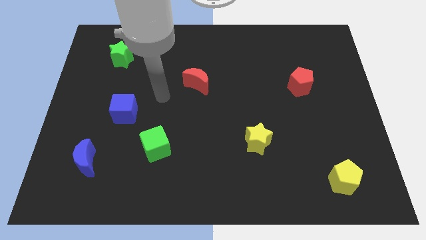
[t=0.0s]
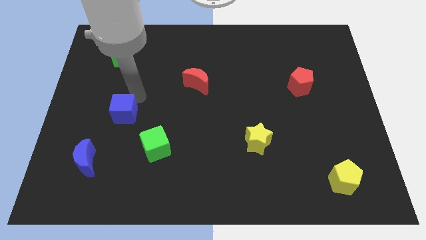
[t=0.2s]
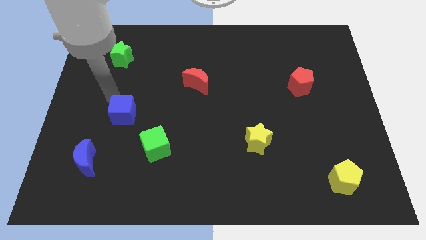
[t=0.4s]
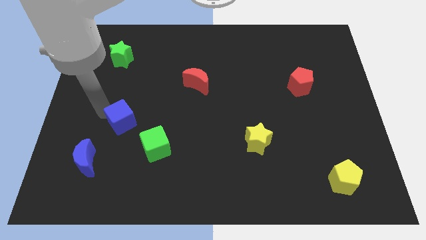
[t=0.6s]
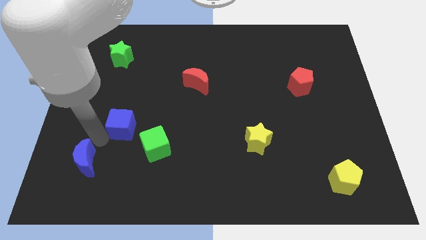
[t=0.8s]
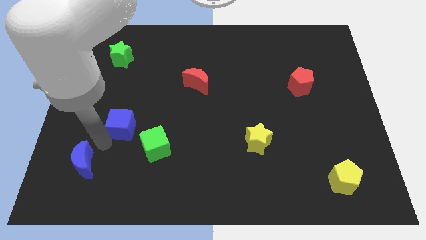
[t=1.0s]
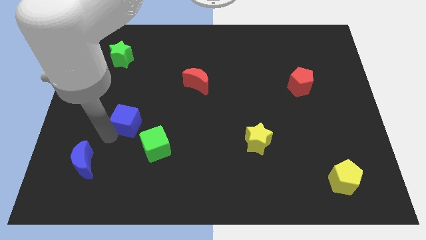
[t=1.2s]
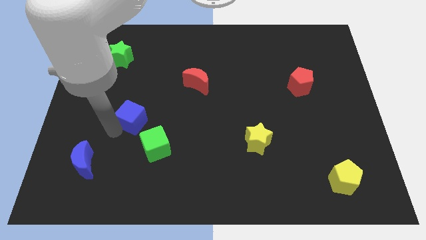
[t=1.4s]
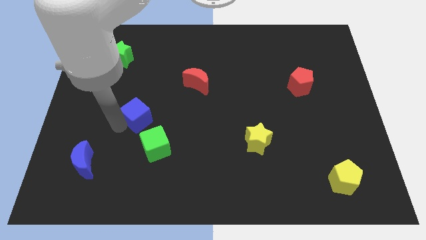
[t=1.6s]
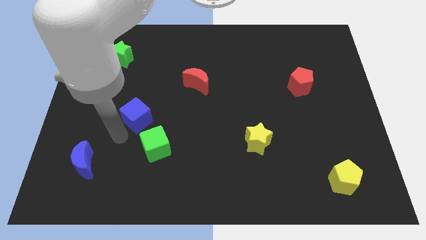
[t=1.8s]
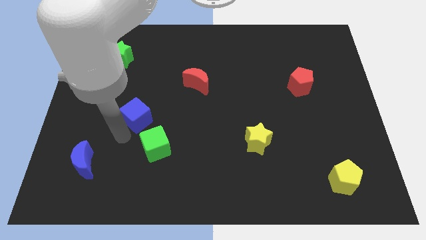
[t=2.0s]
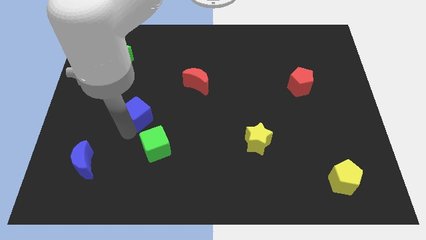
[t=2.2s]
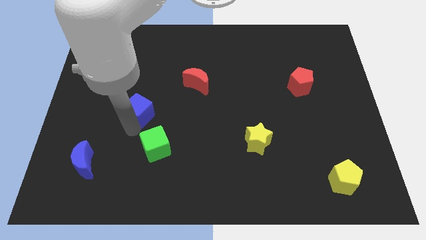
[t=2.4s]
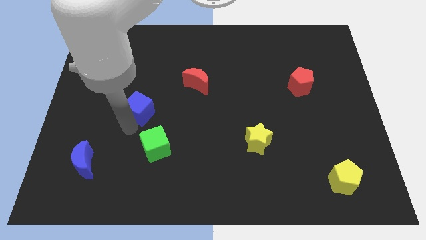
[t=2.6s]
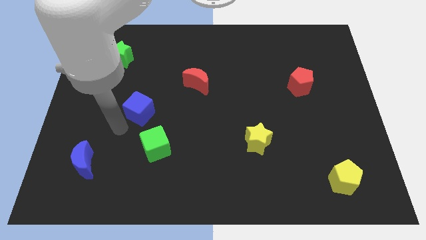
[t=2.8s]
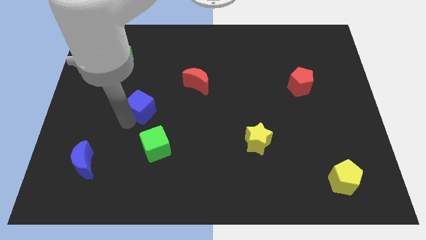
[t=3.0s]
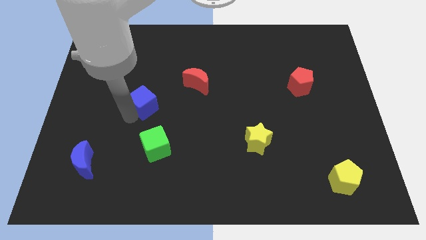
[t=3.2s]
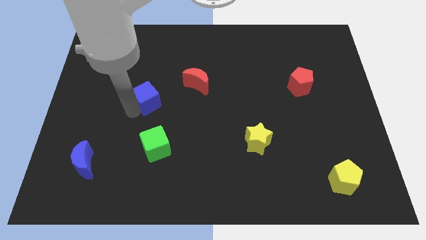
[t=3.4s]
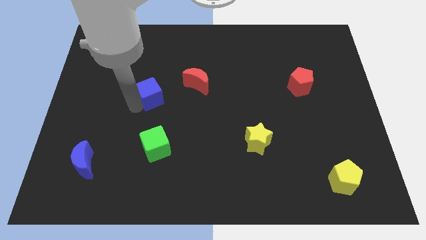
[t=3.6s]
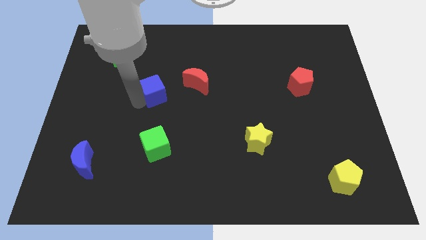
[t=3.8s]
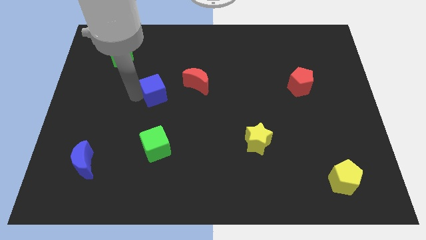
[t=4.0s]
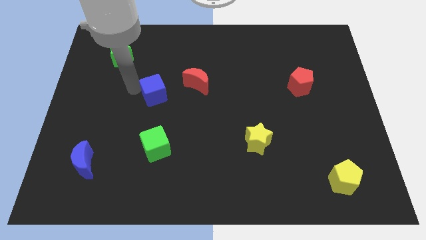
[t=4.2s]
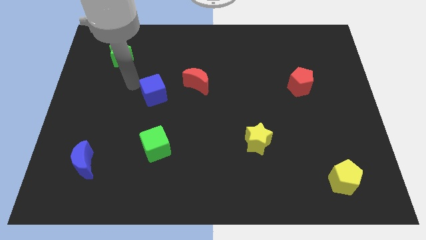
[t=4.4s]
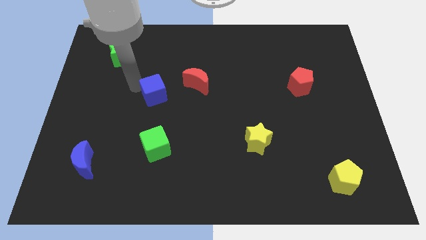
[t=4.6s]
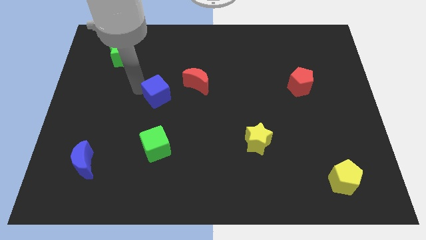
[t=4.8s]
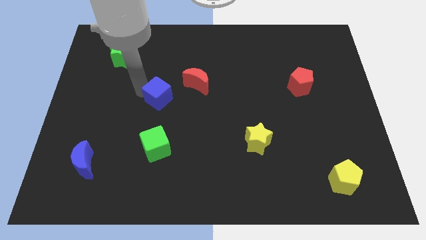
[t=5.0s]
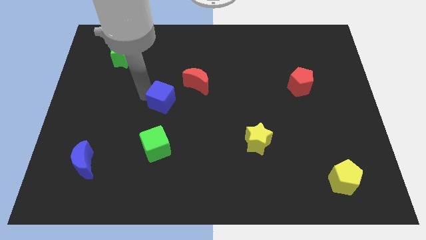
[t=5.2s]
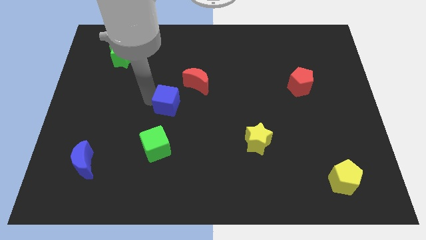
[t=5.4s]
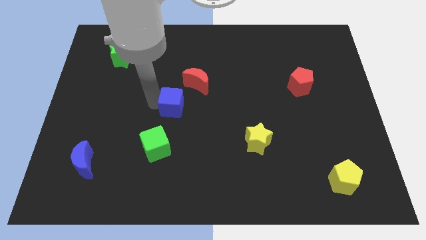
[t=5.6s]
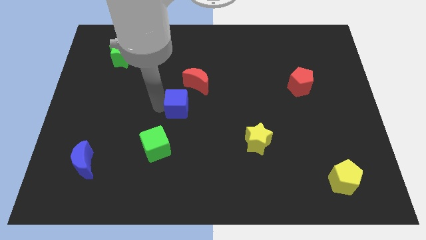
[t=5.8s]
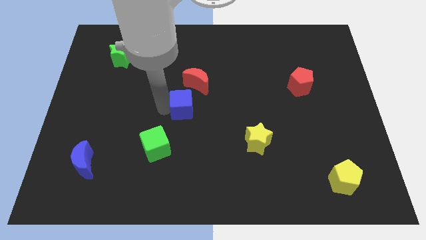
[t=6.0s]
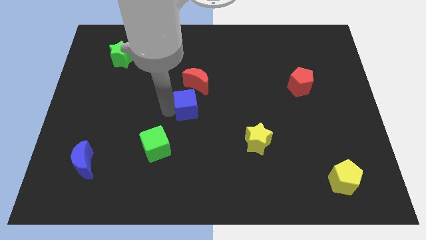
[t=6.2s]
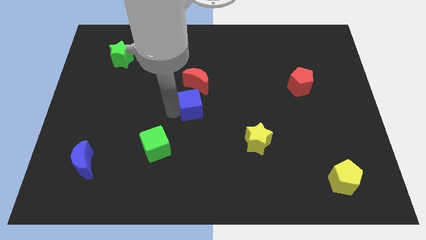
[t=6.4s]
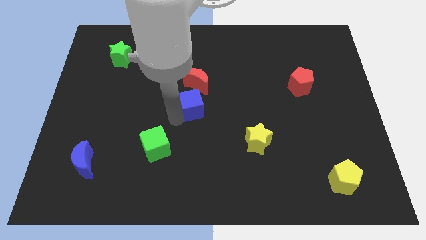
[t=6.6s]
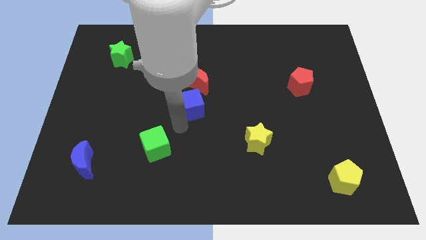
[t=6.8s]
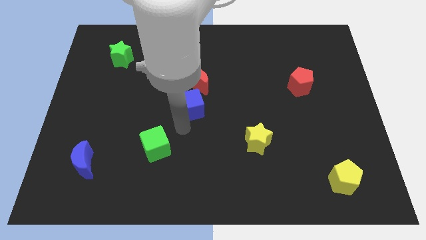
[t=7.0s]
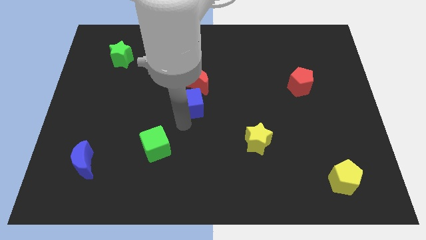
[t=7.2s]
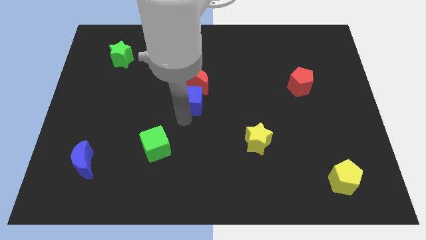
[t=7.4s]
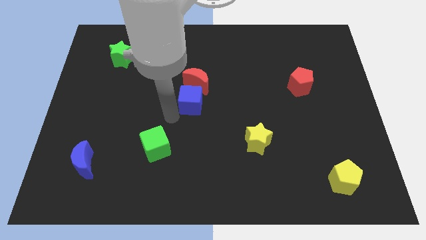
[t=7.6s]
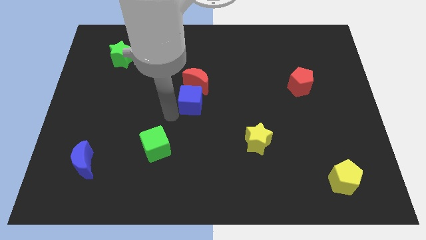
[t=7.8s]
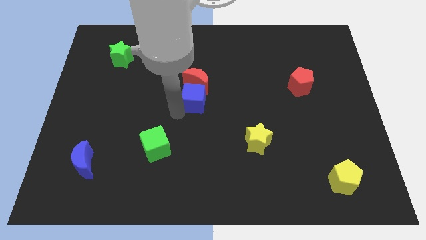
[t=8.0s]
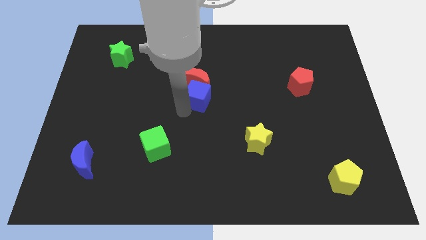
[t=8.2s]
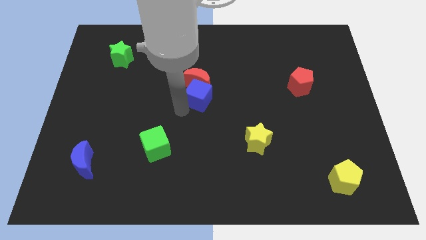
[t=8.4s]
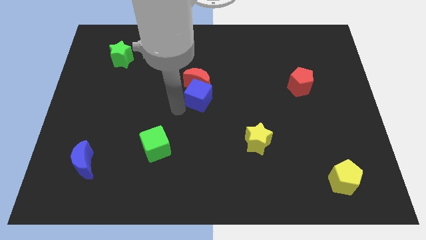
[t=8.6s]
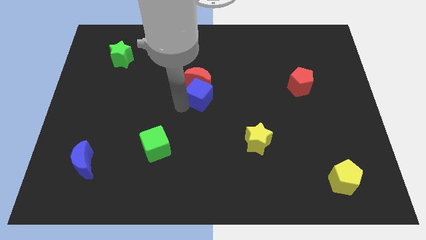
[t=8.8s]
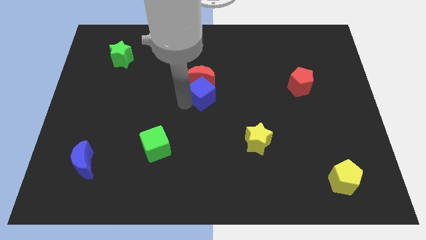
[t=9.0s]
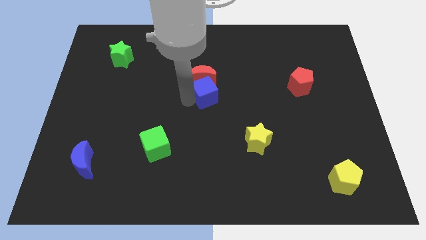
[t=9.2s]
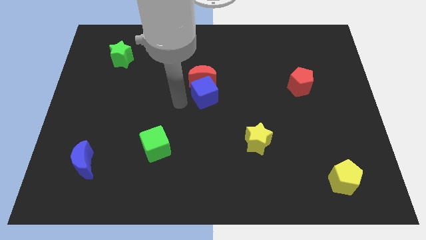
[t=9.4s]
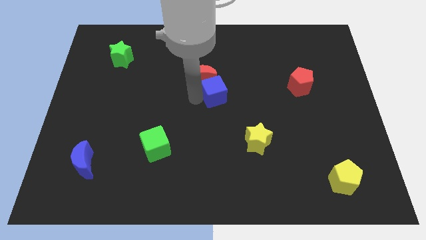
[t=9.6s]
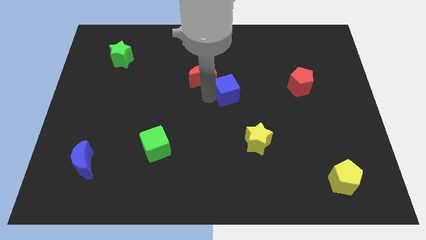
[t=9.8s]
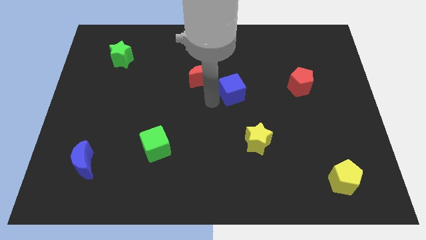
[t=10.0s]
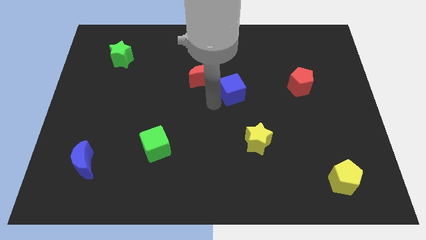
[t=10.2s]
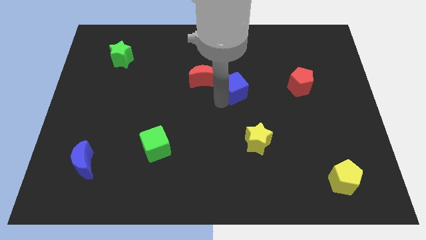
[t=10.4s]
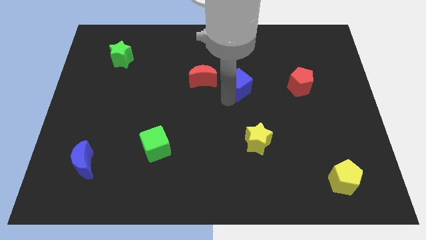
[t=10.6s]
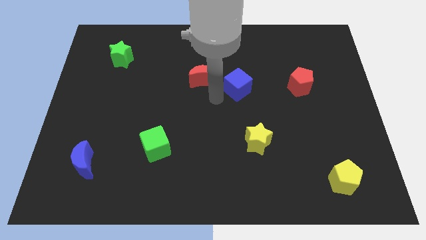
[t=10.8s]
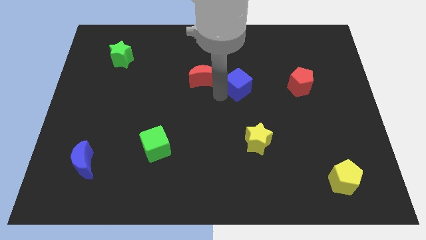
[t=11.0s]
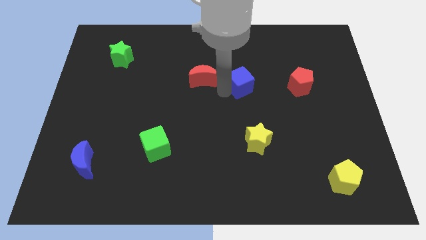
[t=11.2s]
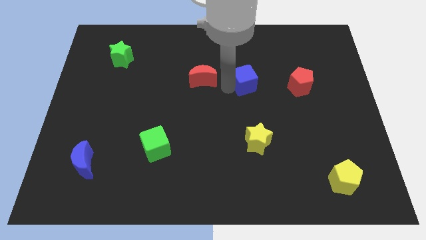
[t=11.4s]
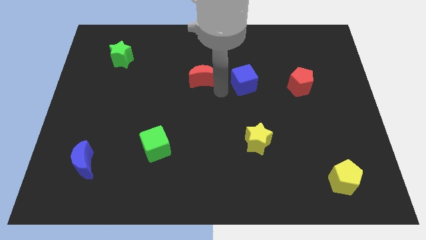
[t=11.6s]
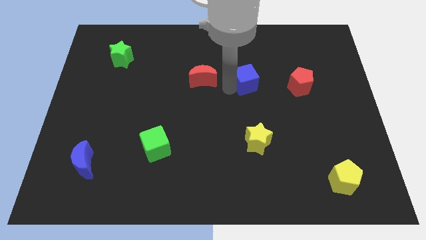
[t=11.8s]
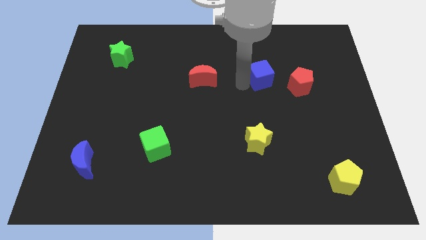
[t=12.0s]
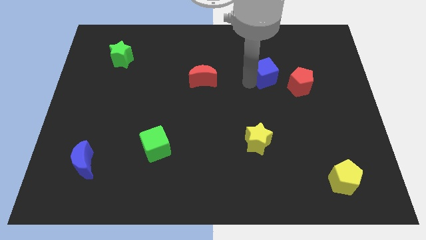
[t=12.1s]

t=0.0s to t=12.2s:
slide the blue cube diagonally up and to the left of the red pentagon

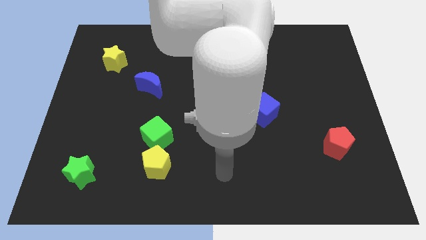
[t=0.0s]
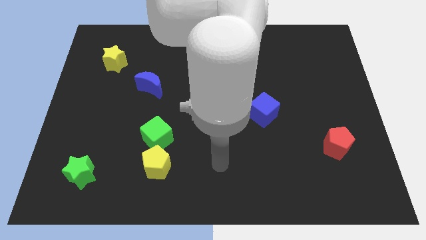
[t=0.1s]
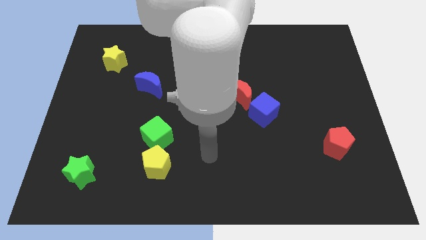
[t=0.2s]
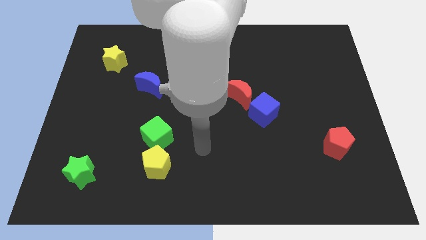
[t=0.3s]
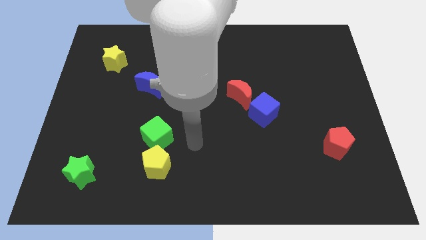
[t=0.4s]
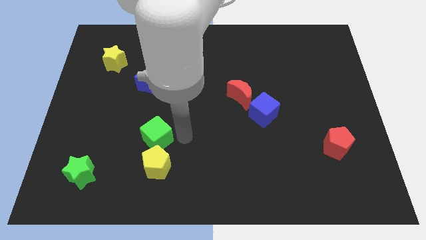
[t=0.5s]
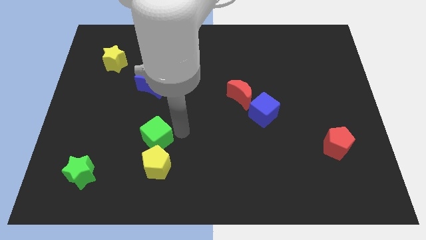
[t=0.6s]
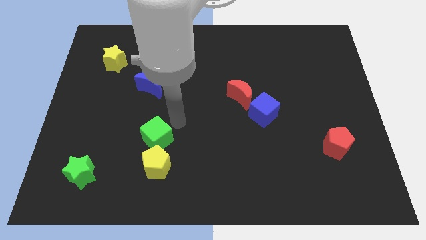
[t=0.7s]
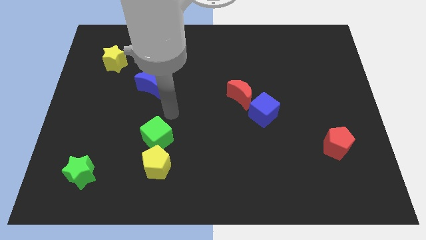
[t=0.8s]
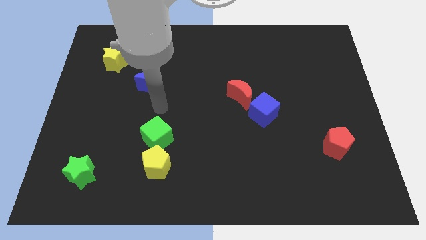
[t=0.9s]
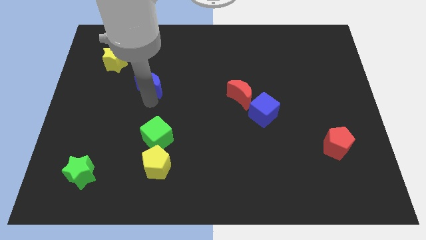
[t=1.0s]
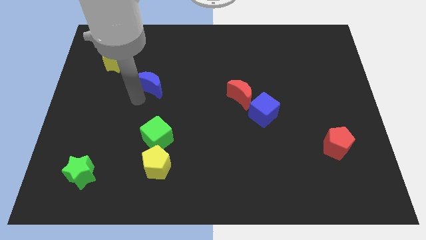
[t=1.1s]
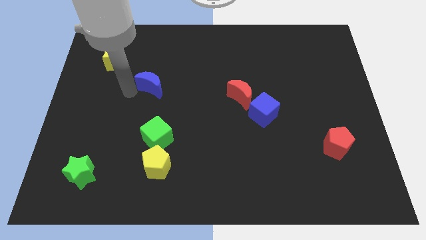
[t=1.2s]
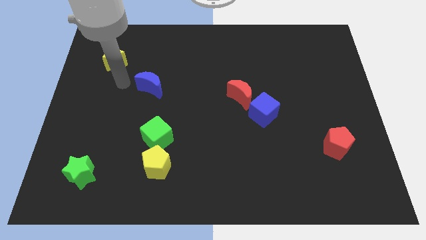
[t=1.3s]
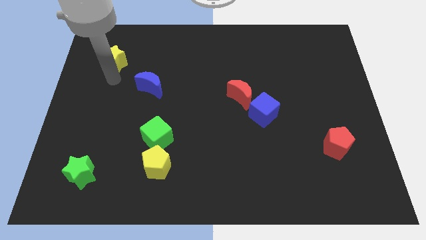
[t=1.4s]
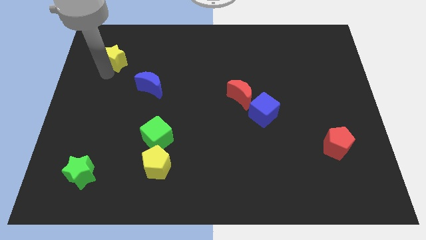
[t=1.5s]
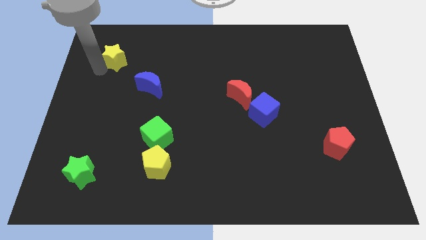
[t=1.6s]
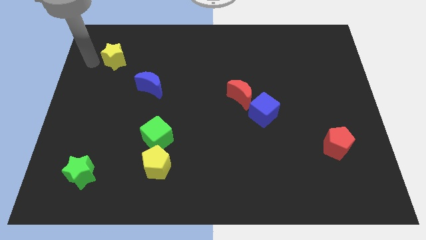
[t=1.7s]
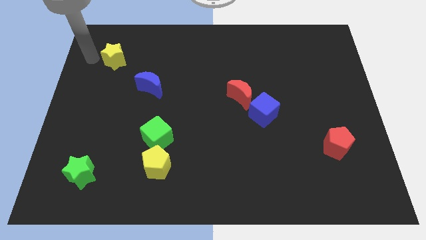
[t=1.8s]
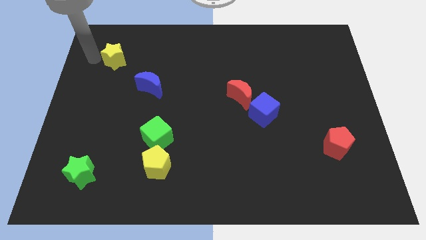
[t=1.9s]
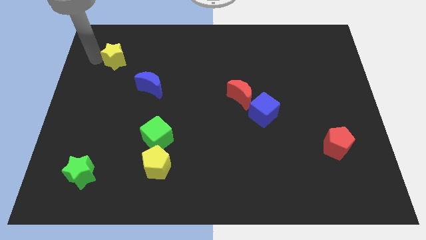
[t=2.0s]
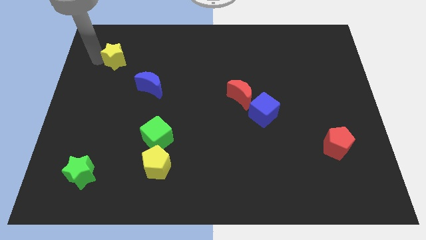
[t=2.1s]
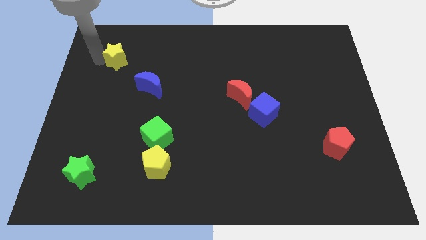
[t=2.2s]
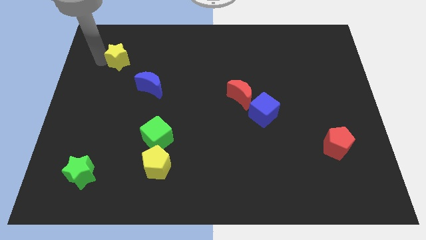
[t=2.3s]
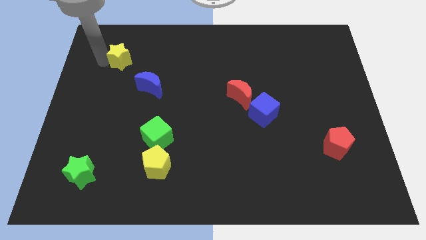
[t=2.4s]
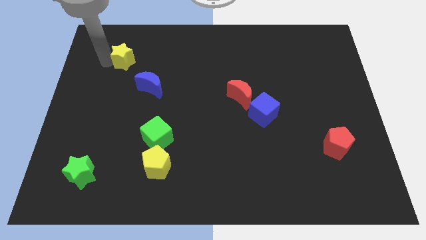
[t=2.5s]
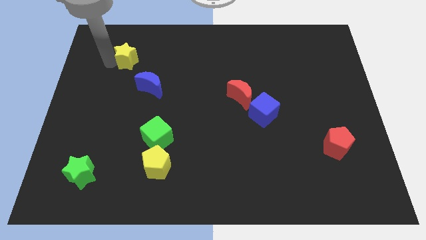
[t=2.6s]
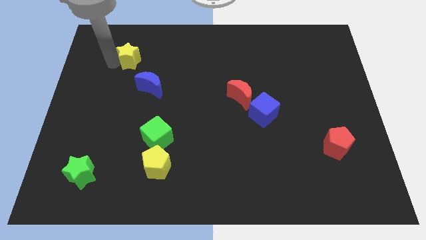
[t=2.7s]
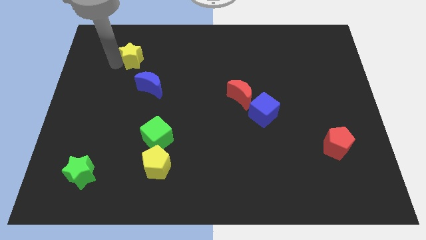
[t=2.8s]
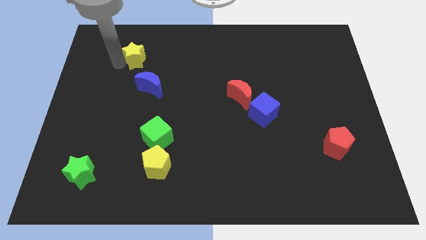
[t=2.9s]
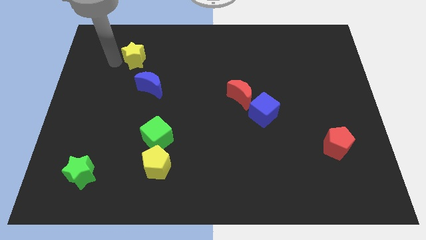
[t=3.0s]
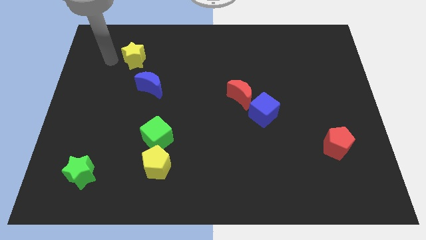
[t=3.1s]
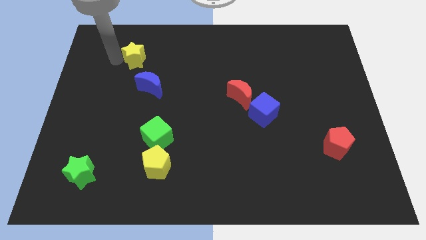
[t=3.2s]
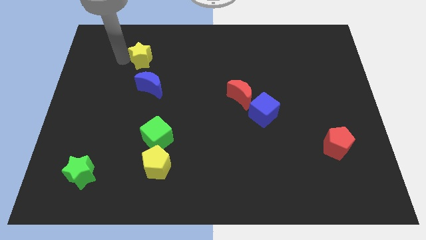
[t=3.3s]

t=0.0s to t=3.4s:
move the yellow star to the top of the blue moon
